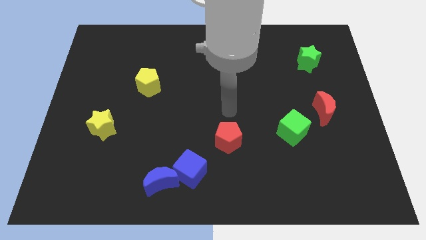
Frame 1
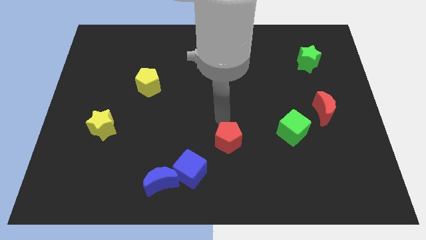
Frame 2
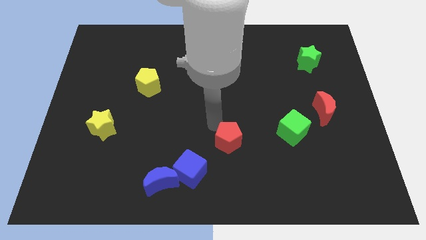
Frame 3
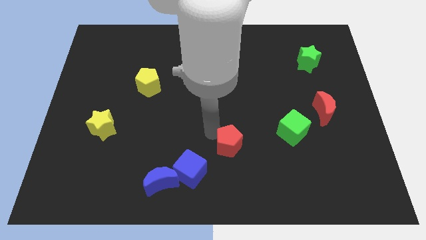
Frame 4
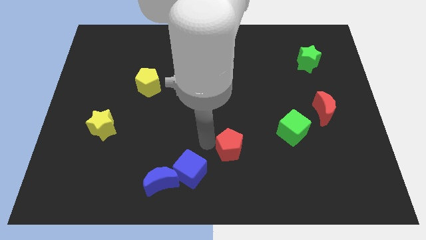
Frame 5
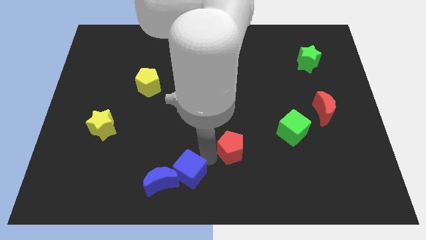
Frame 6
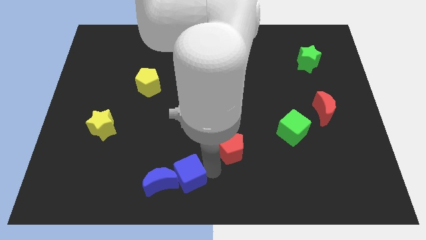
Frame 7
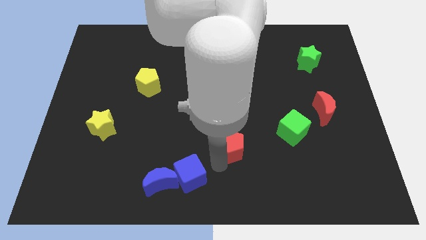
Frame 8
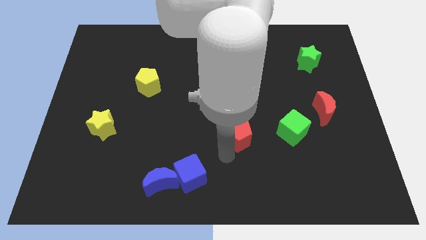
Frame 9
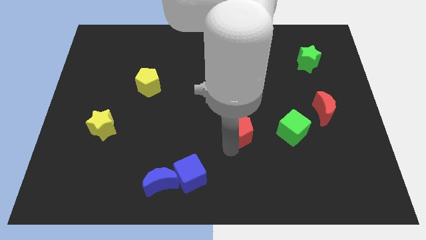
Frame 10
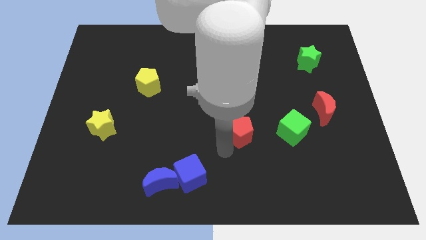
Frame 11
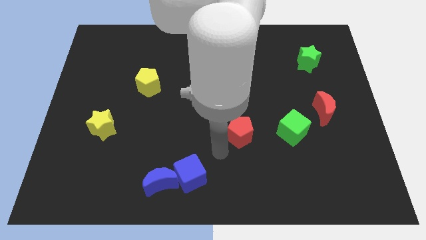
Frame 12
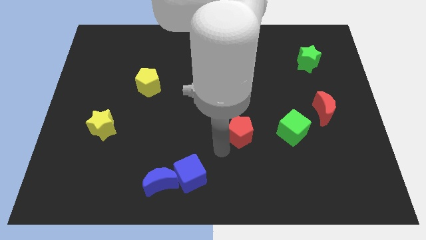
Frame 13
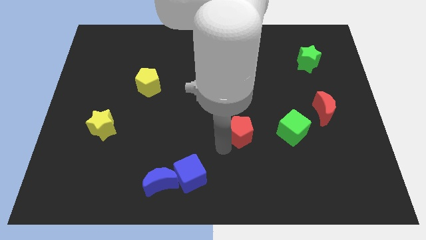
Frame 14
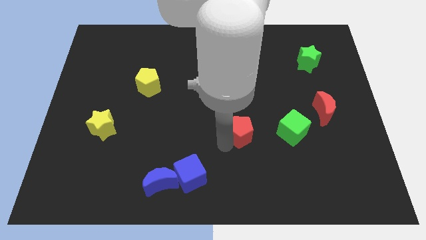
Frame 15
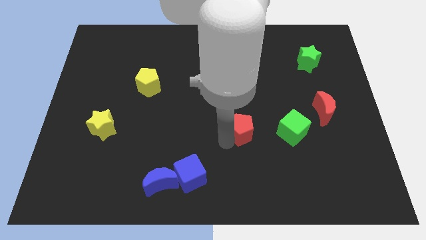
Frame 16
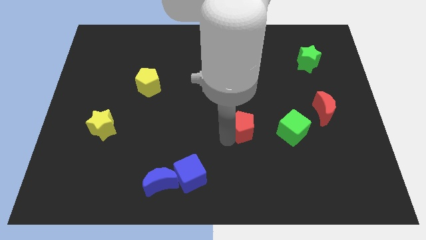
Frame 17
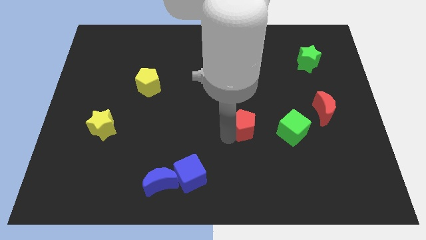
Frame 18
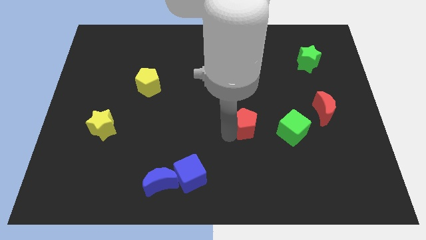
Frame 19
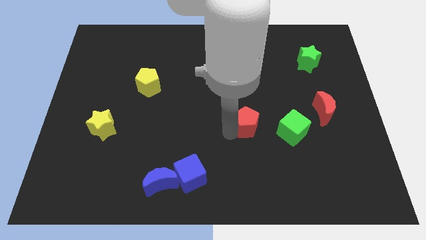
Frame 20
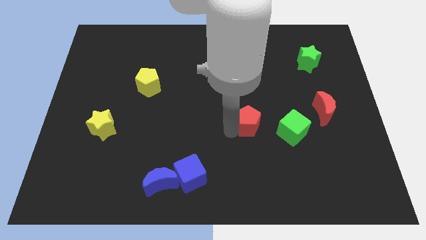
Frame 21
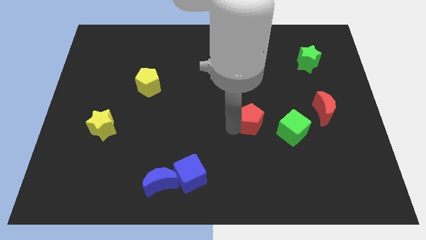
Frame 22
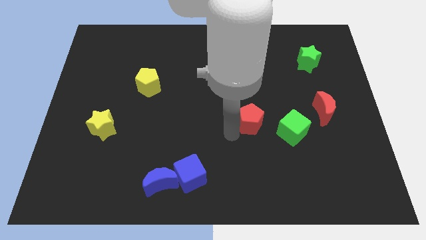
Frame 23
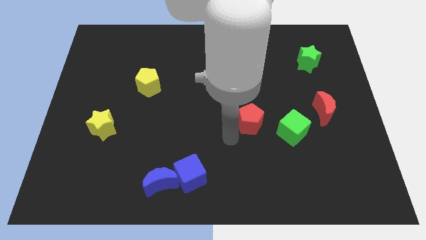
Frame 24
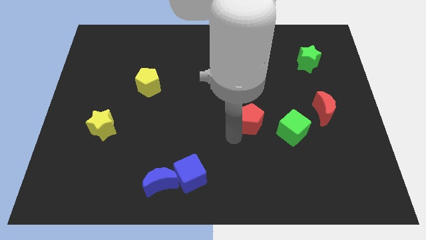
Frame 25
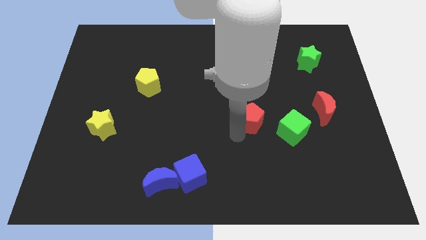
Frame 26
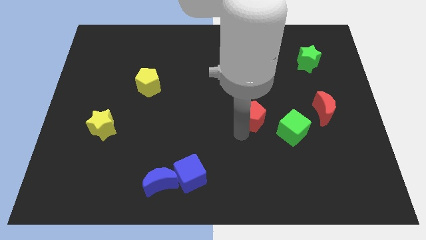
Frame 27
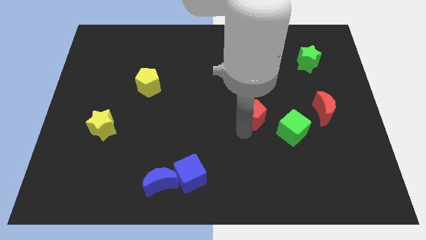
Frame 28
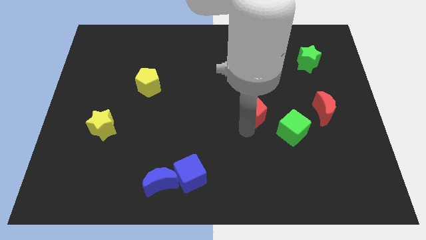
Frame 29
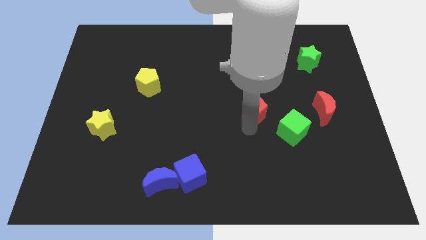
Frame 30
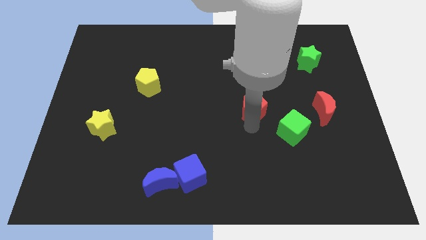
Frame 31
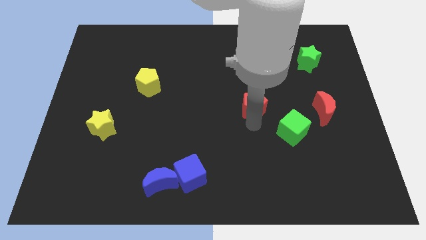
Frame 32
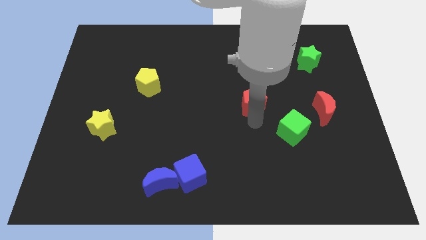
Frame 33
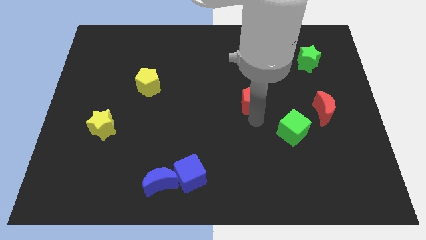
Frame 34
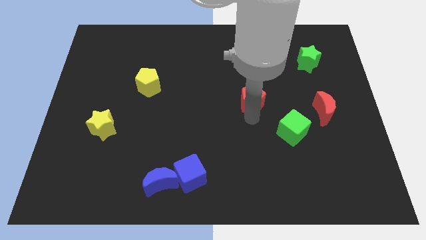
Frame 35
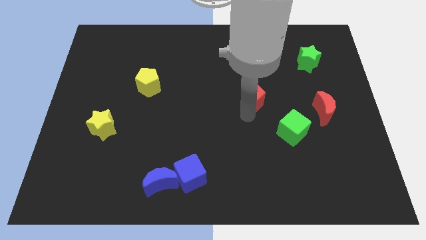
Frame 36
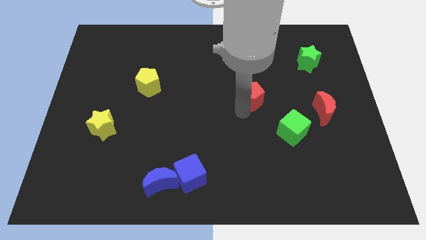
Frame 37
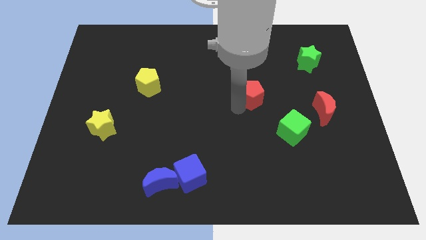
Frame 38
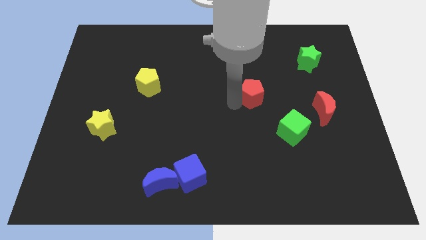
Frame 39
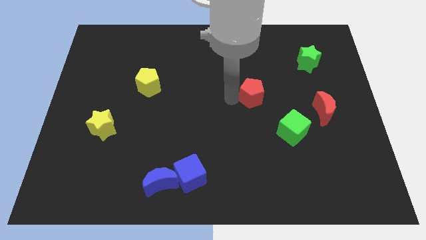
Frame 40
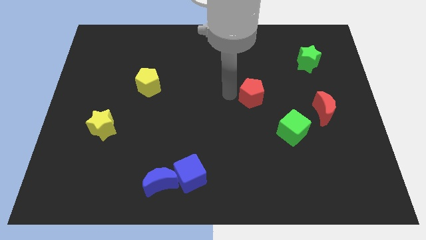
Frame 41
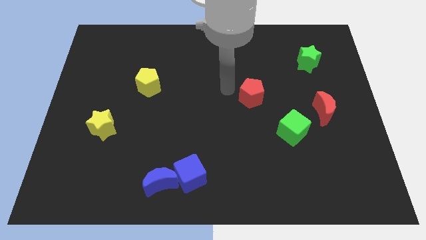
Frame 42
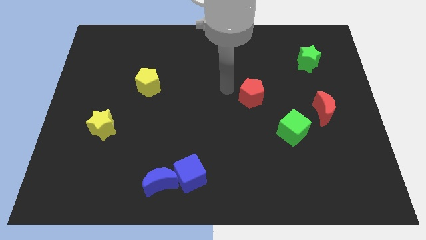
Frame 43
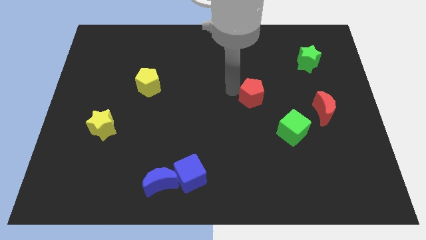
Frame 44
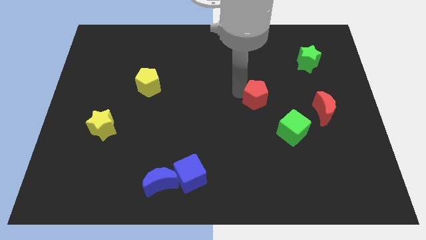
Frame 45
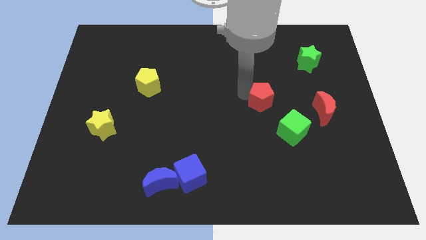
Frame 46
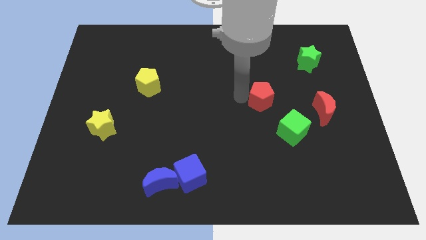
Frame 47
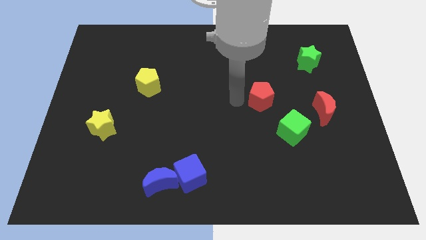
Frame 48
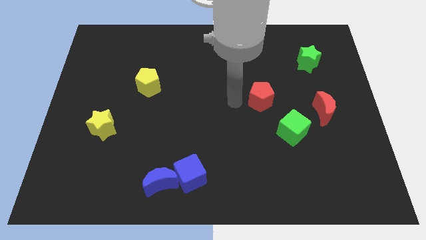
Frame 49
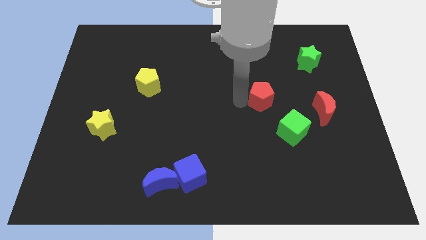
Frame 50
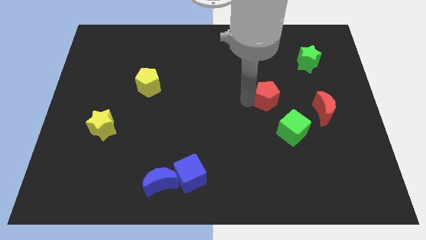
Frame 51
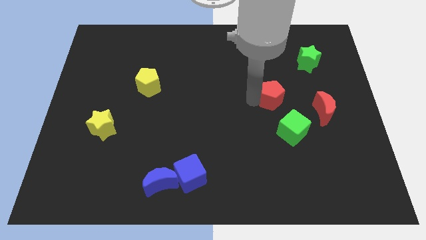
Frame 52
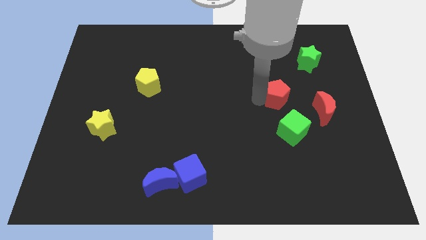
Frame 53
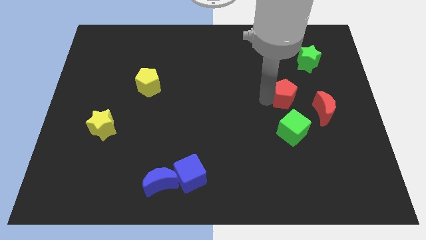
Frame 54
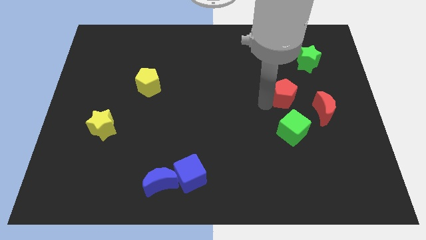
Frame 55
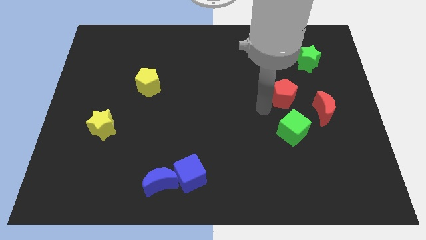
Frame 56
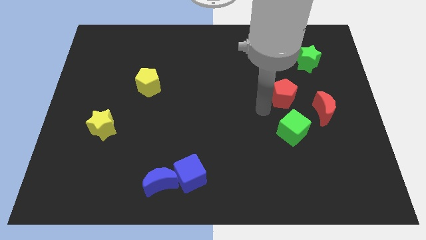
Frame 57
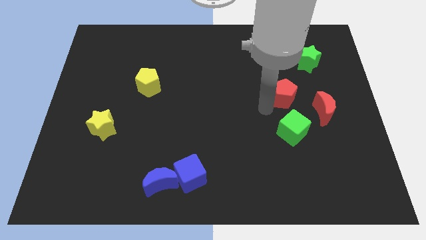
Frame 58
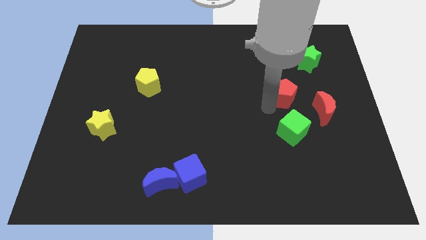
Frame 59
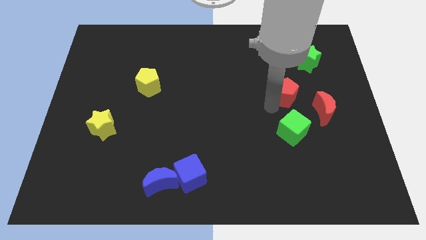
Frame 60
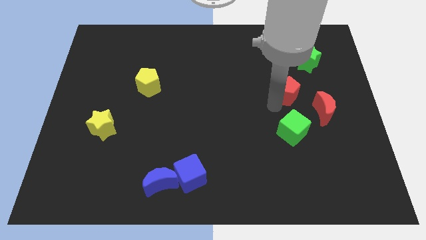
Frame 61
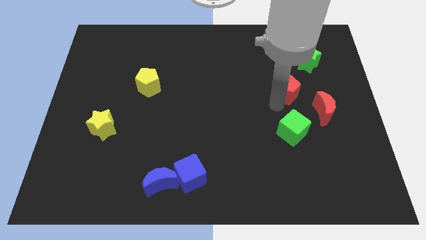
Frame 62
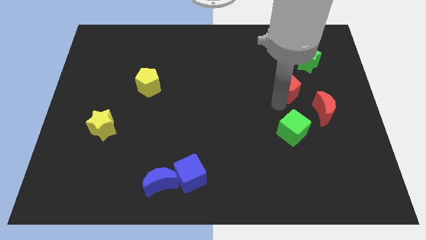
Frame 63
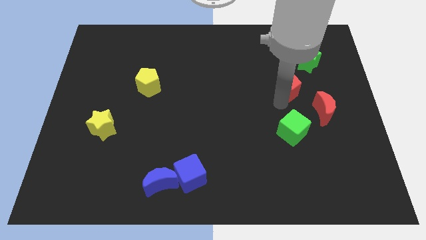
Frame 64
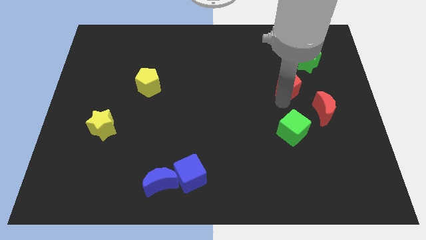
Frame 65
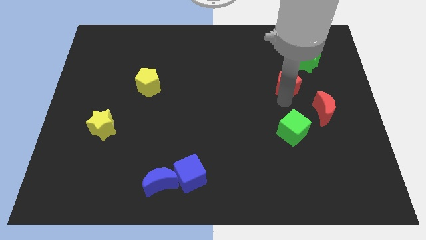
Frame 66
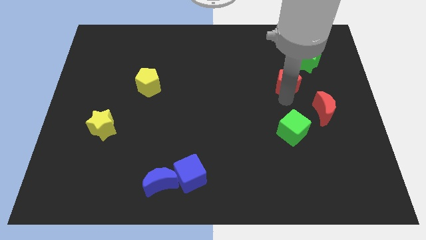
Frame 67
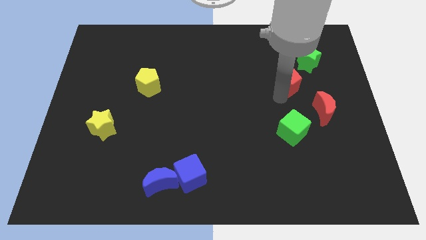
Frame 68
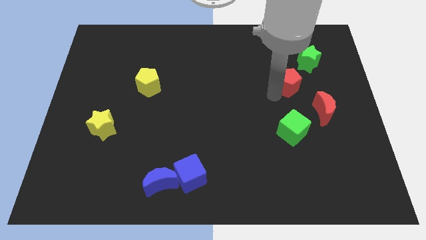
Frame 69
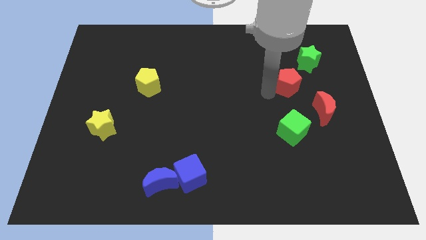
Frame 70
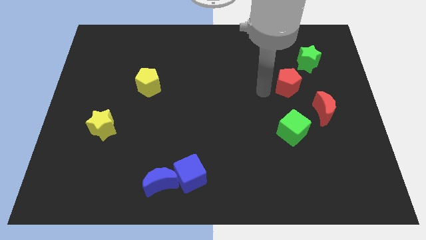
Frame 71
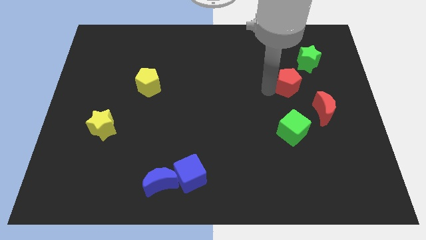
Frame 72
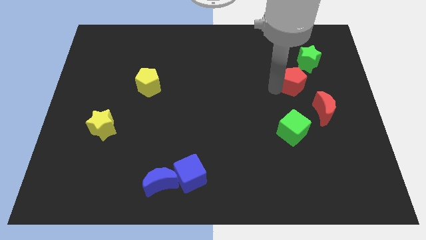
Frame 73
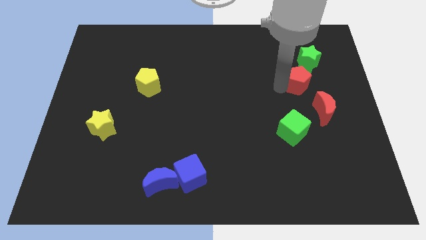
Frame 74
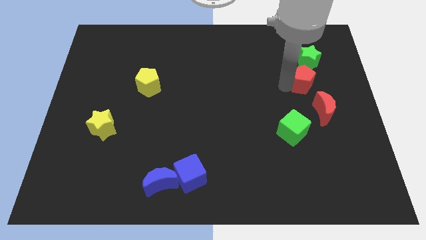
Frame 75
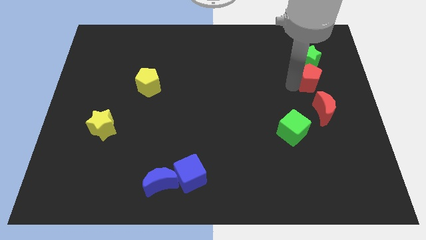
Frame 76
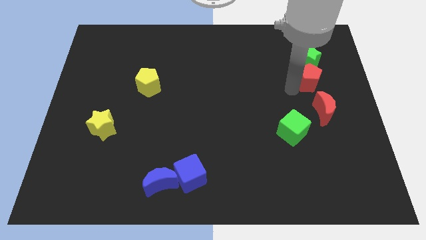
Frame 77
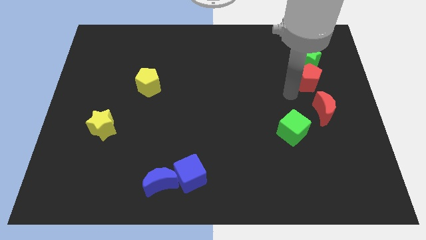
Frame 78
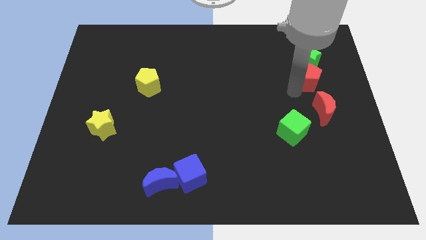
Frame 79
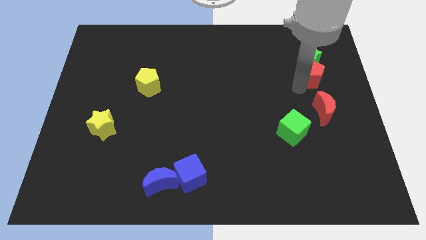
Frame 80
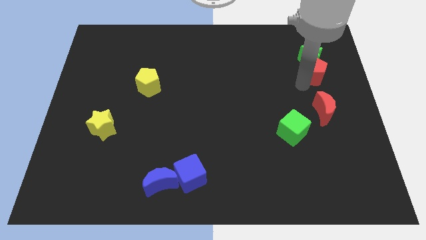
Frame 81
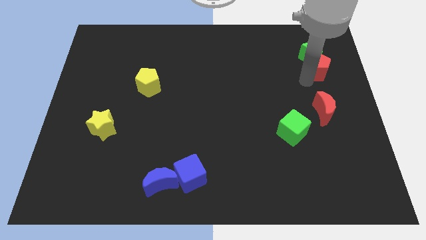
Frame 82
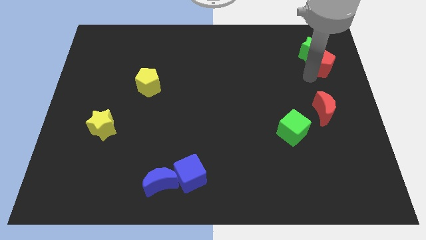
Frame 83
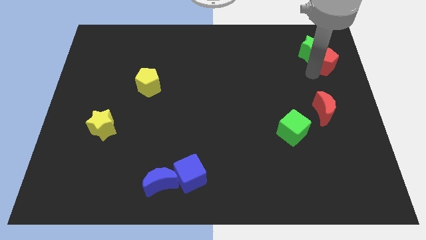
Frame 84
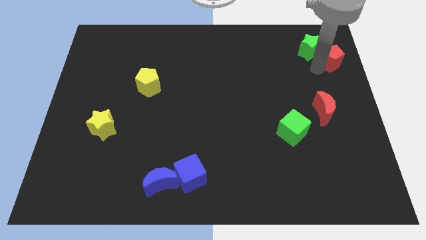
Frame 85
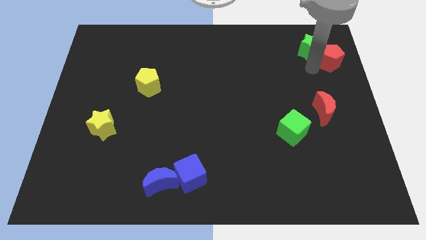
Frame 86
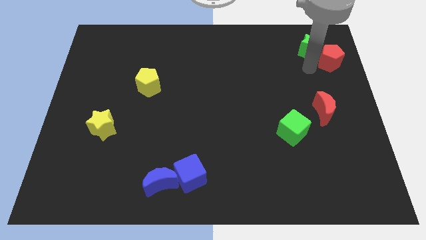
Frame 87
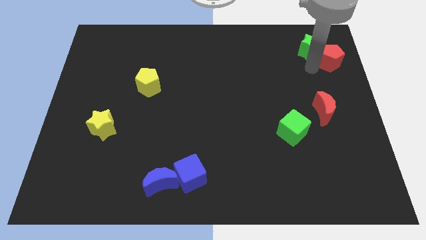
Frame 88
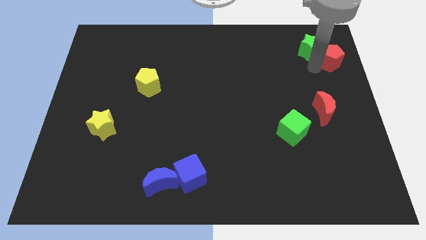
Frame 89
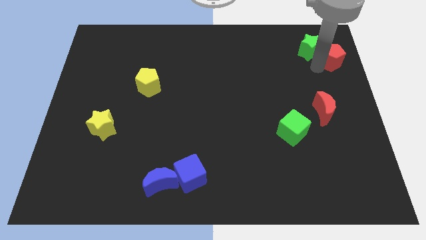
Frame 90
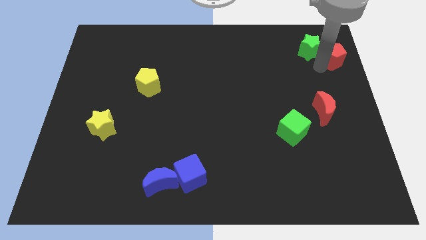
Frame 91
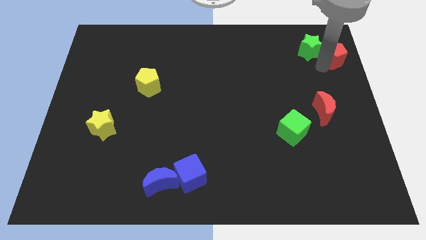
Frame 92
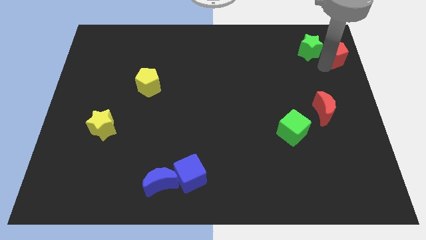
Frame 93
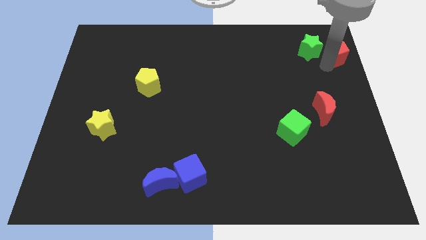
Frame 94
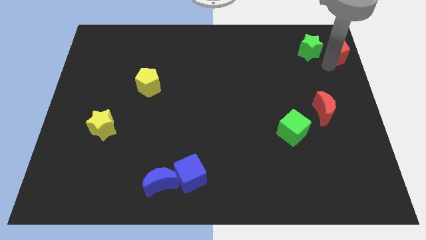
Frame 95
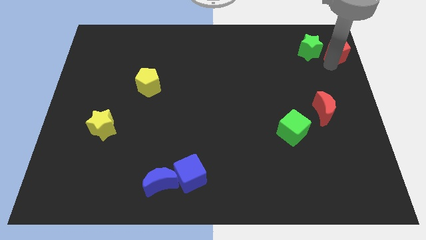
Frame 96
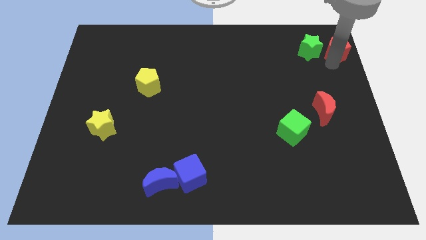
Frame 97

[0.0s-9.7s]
slide the red pentagon to the upper right corner
